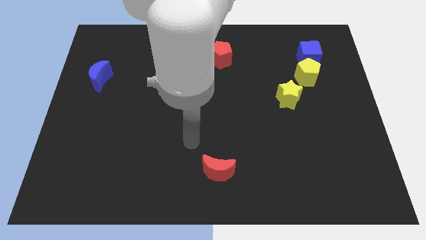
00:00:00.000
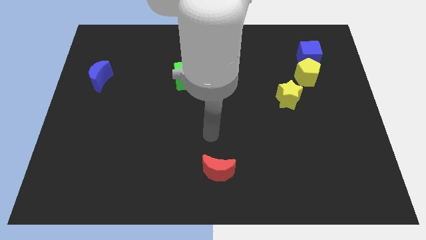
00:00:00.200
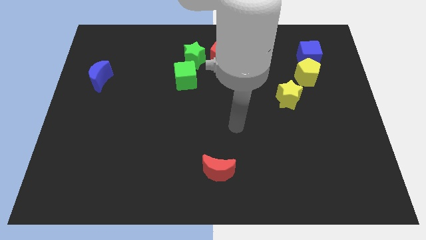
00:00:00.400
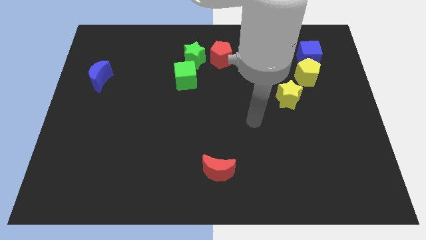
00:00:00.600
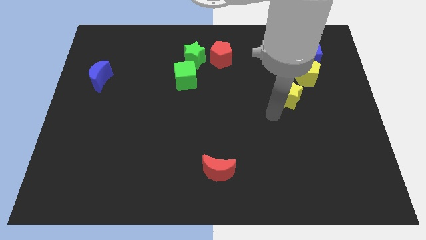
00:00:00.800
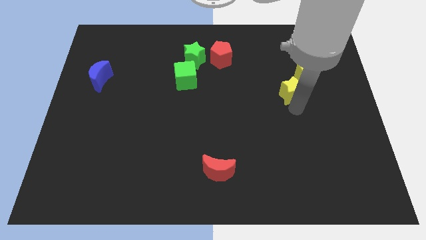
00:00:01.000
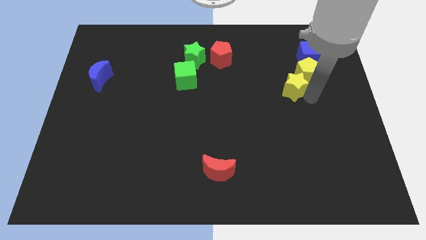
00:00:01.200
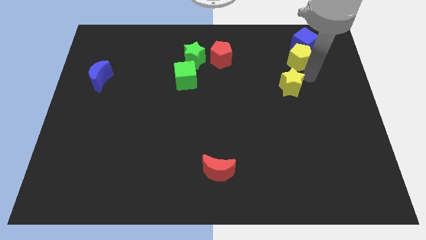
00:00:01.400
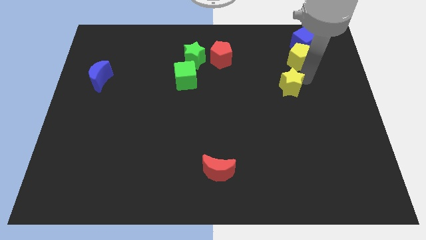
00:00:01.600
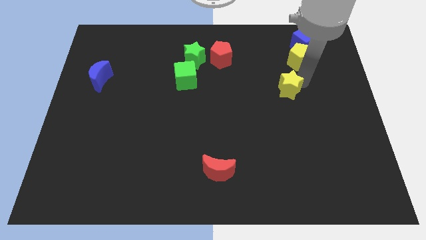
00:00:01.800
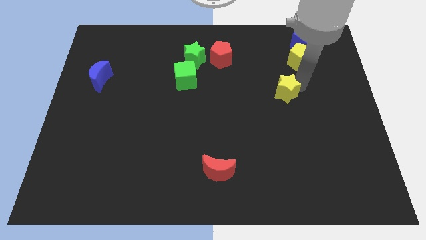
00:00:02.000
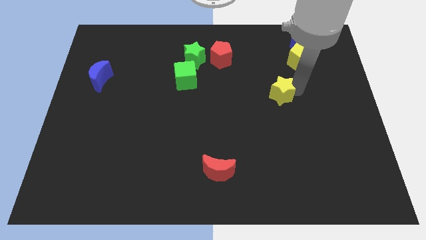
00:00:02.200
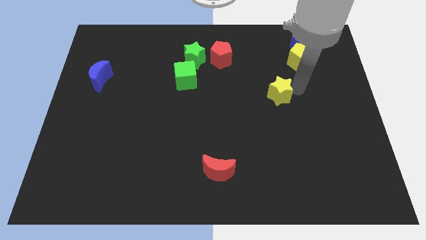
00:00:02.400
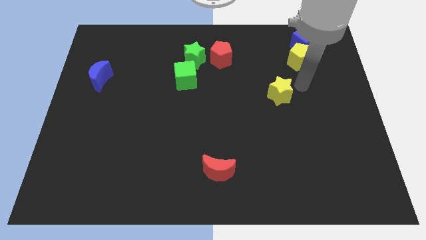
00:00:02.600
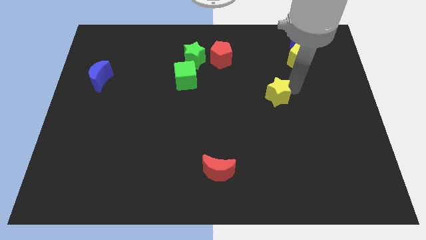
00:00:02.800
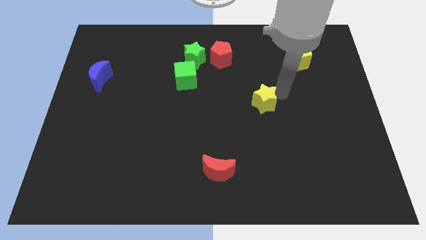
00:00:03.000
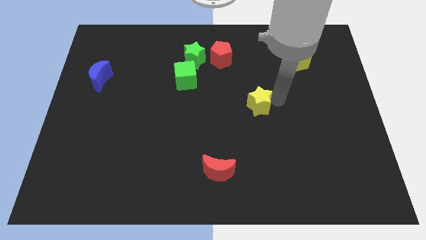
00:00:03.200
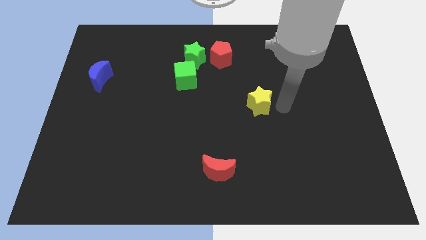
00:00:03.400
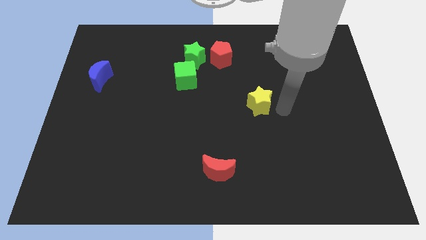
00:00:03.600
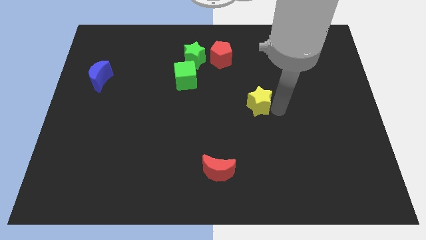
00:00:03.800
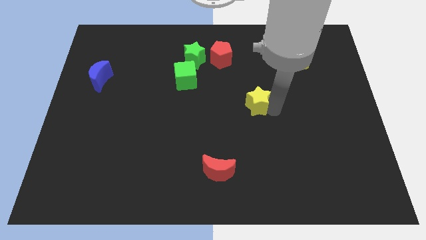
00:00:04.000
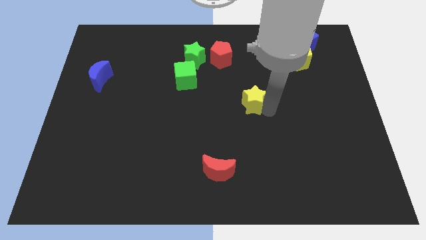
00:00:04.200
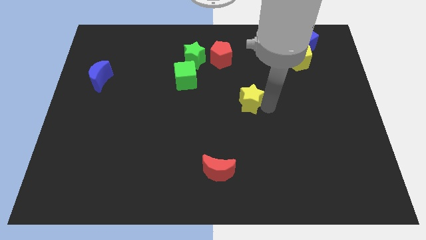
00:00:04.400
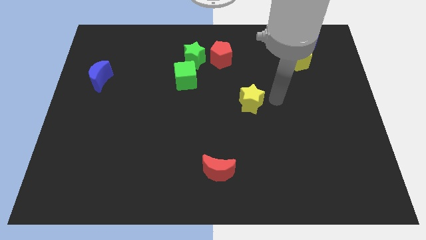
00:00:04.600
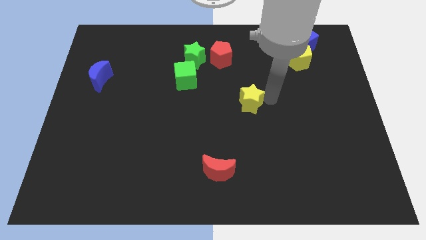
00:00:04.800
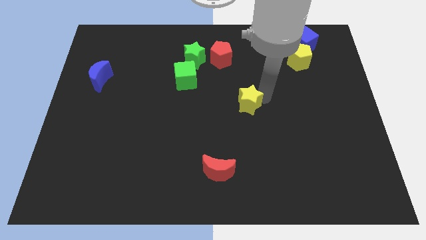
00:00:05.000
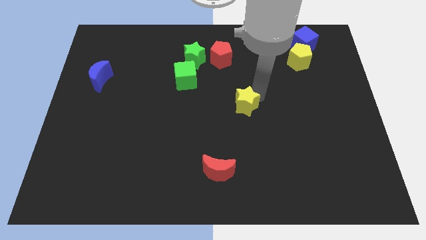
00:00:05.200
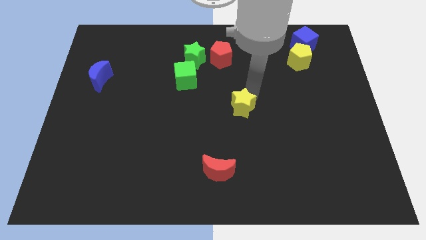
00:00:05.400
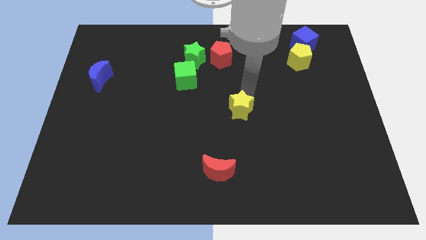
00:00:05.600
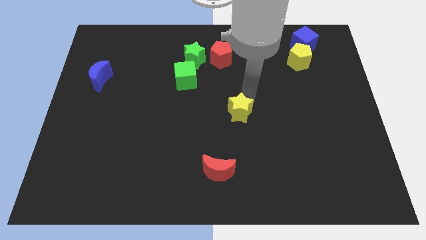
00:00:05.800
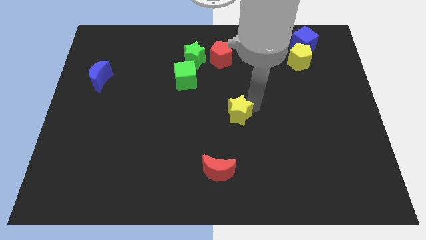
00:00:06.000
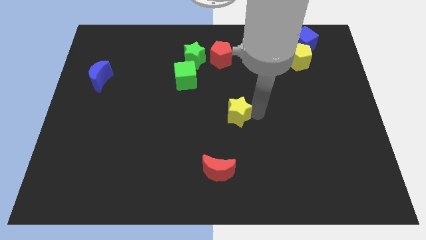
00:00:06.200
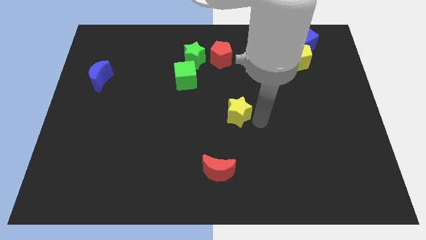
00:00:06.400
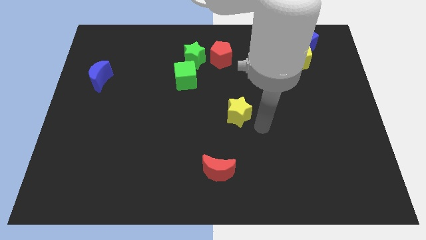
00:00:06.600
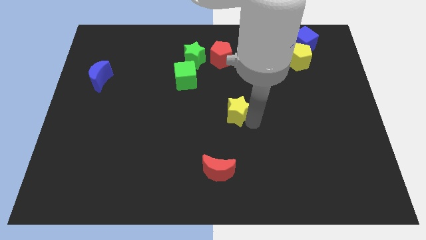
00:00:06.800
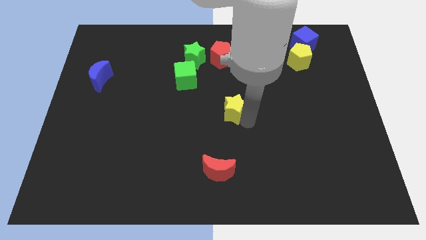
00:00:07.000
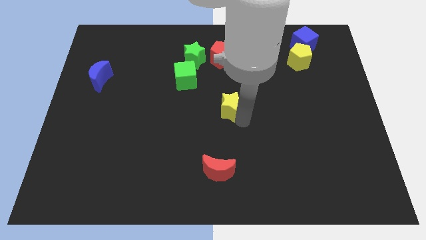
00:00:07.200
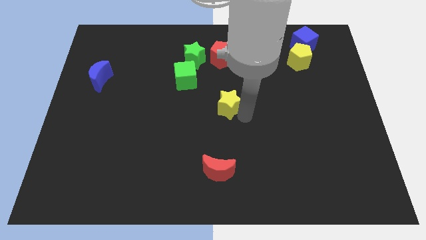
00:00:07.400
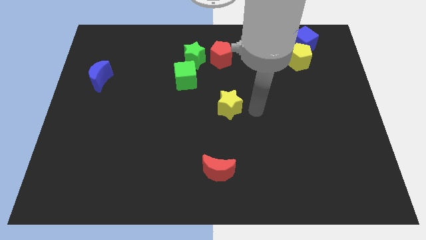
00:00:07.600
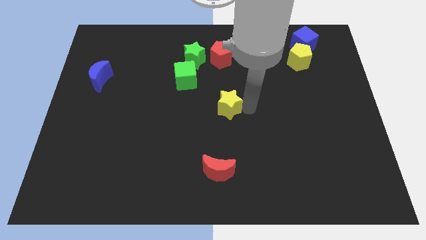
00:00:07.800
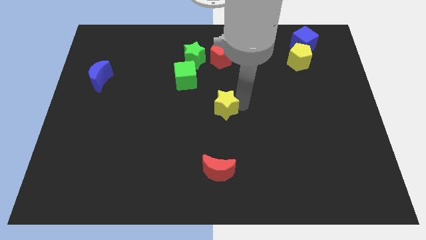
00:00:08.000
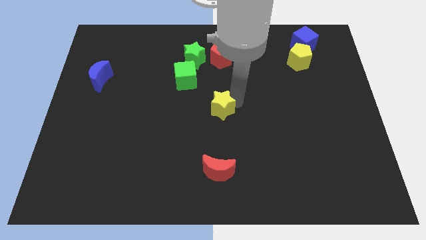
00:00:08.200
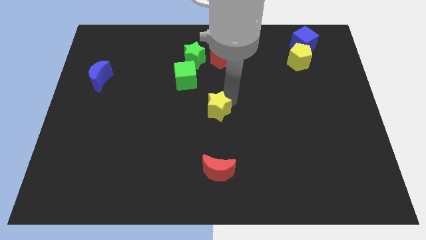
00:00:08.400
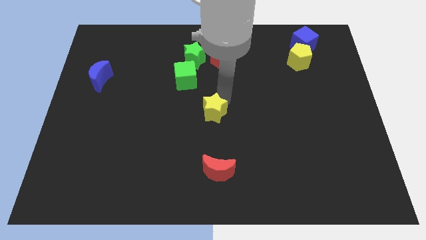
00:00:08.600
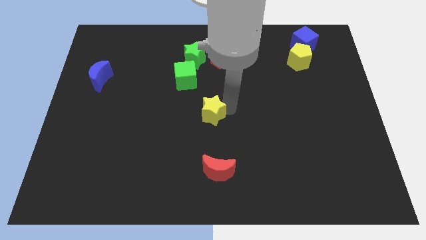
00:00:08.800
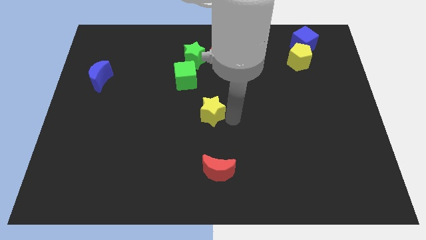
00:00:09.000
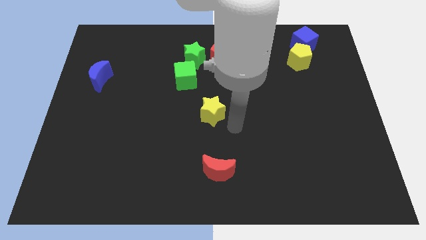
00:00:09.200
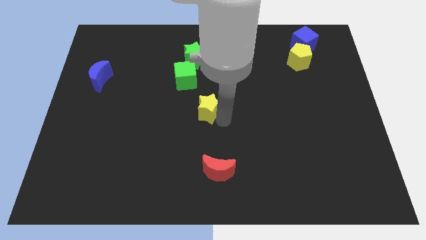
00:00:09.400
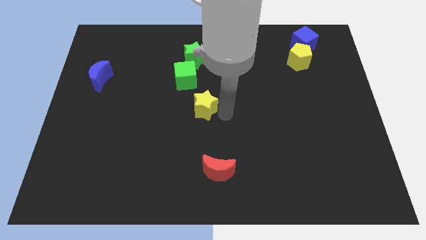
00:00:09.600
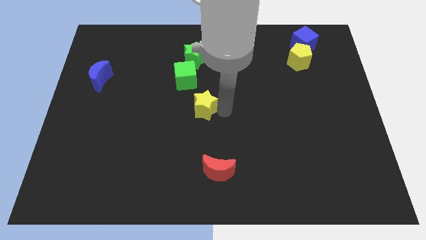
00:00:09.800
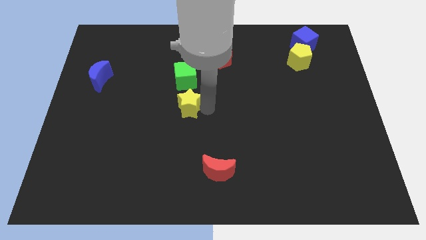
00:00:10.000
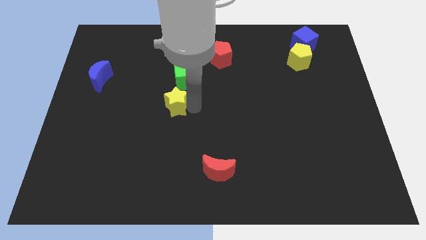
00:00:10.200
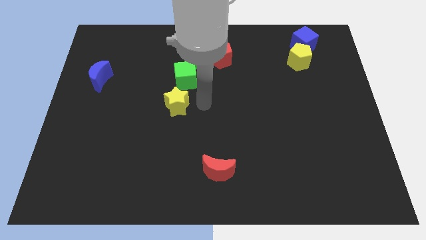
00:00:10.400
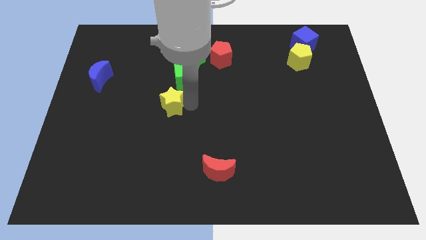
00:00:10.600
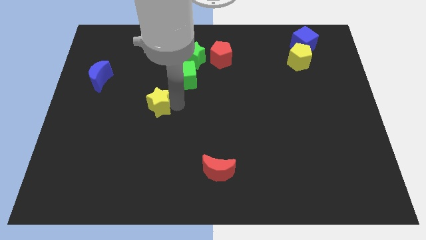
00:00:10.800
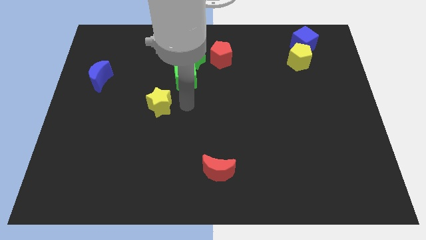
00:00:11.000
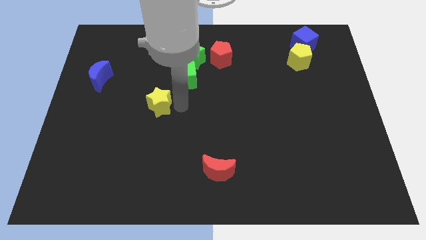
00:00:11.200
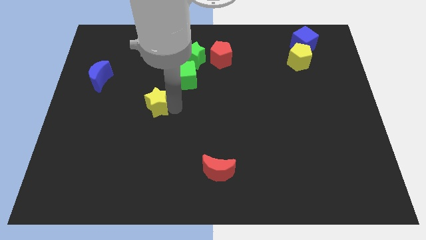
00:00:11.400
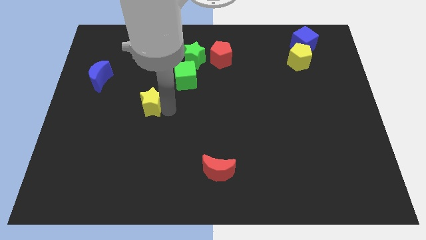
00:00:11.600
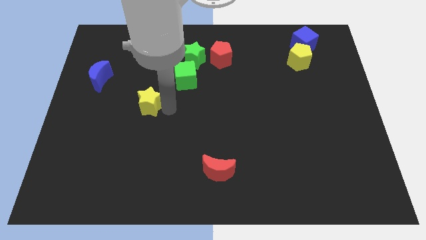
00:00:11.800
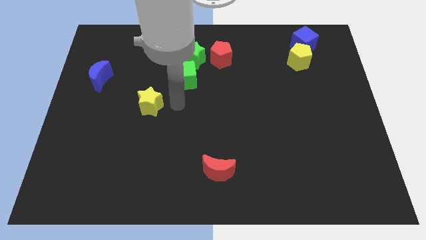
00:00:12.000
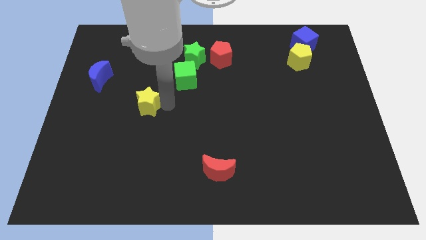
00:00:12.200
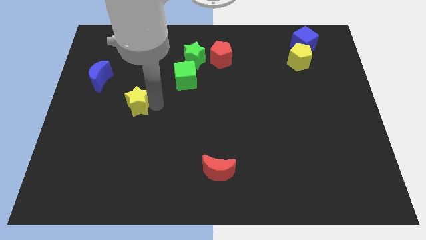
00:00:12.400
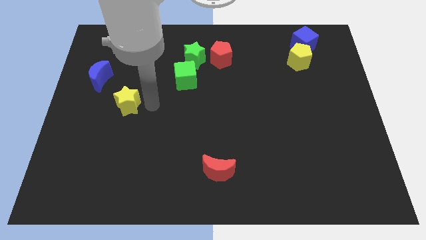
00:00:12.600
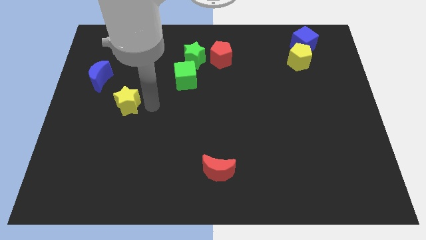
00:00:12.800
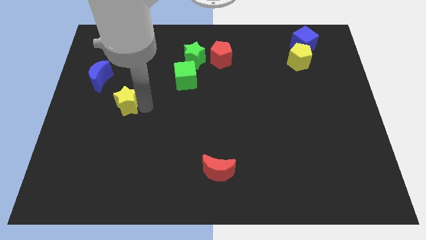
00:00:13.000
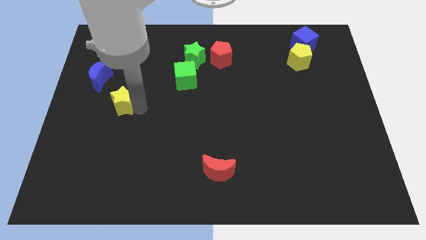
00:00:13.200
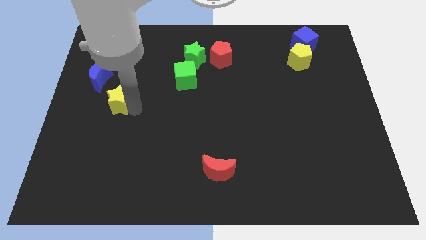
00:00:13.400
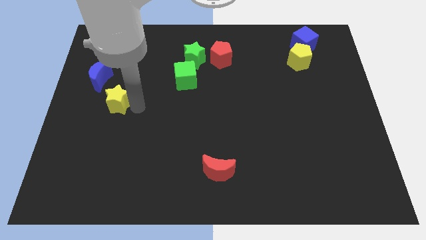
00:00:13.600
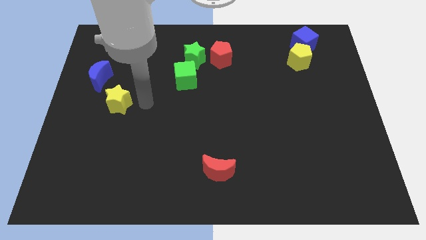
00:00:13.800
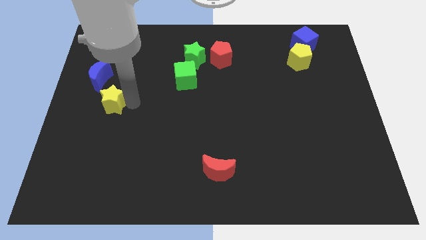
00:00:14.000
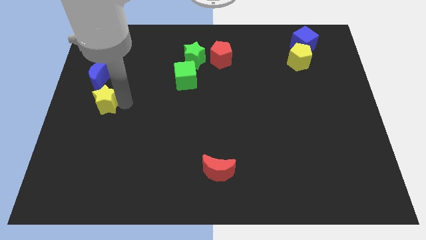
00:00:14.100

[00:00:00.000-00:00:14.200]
push the yellow star to the left side
